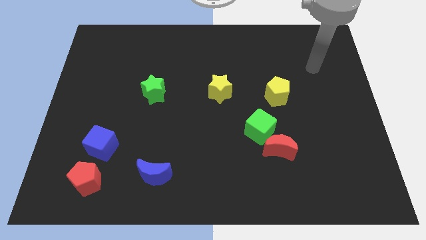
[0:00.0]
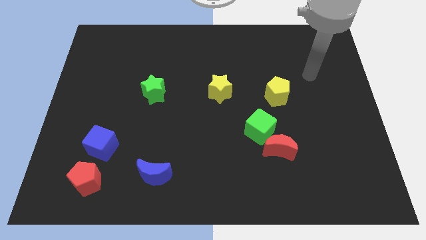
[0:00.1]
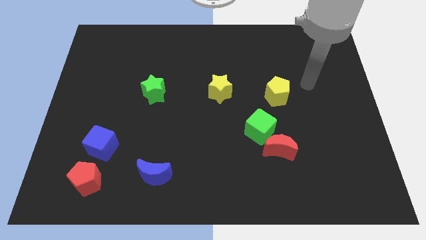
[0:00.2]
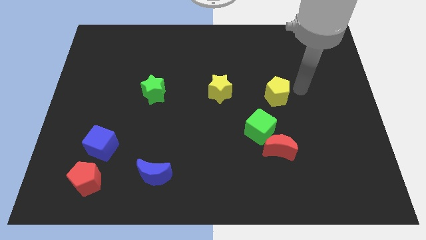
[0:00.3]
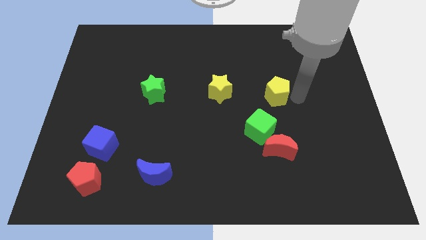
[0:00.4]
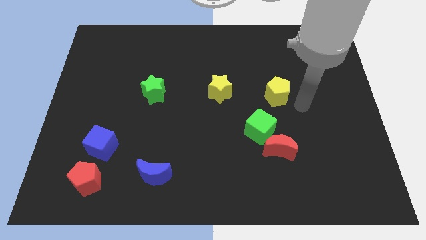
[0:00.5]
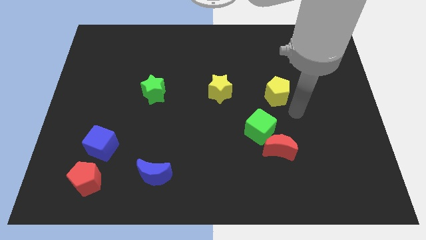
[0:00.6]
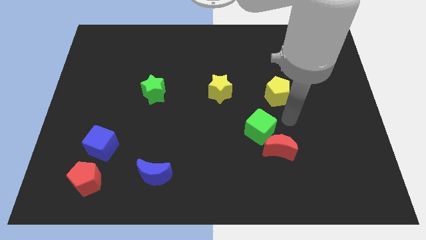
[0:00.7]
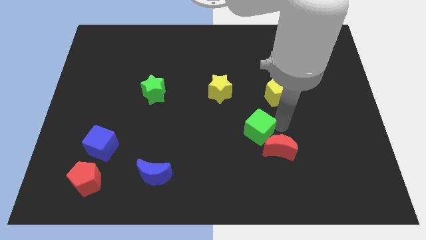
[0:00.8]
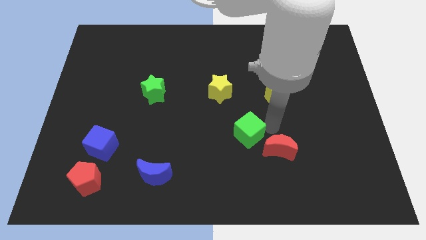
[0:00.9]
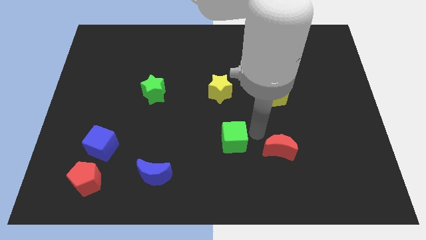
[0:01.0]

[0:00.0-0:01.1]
move the red moon away from the green cube

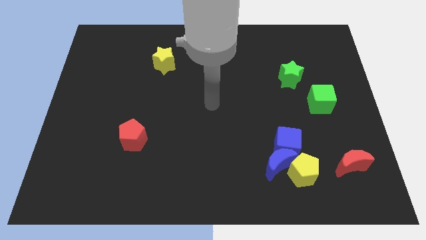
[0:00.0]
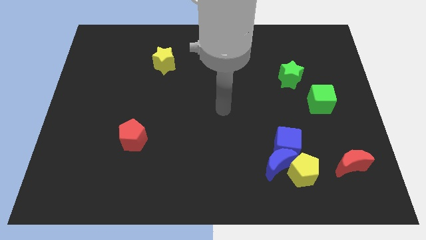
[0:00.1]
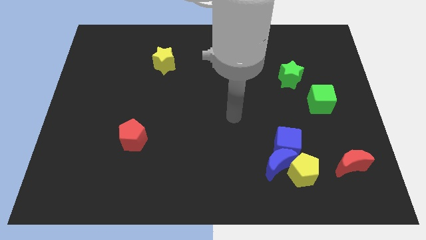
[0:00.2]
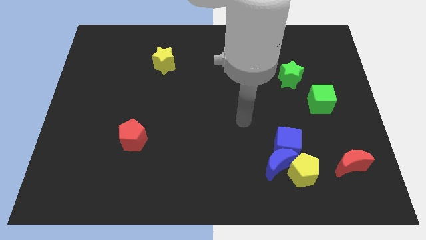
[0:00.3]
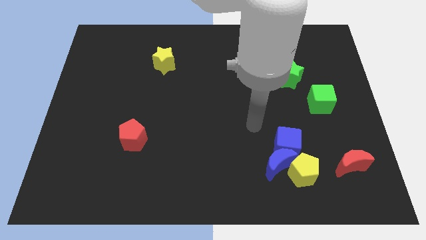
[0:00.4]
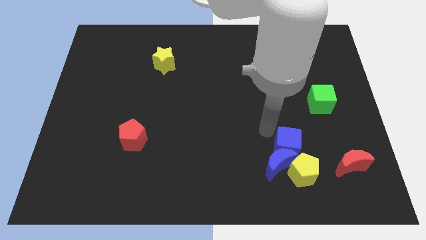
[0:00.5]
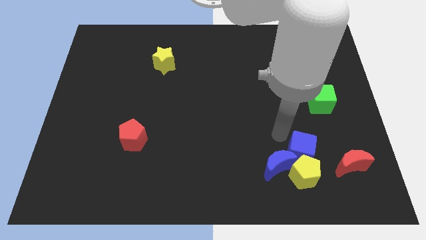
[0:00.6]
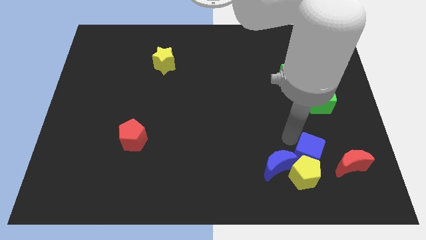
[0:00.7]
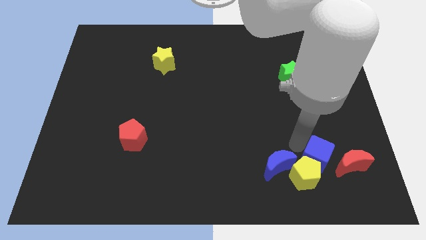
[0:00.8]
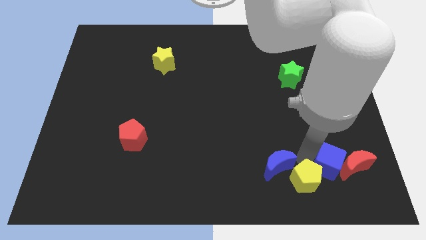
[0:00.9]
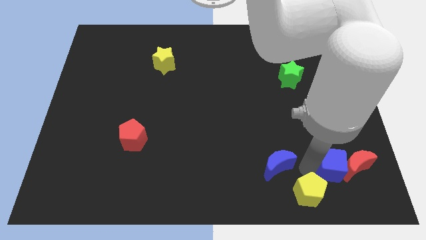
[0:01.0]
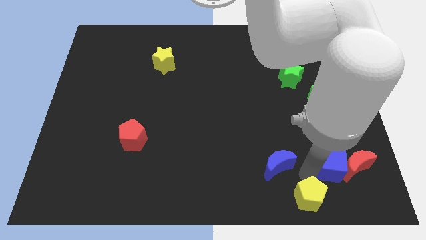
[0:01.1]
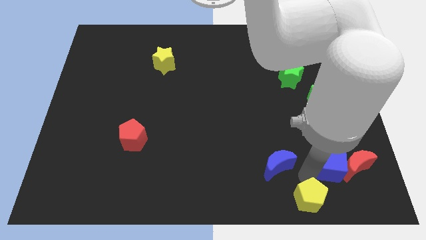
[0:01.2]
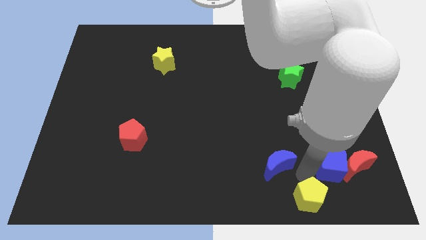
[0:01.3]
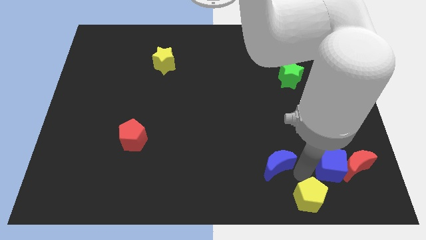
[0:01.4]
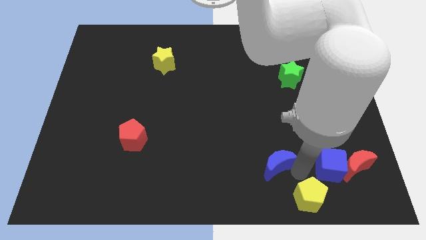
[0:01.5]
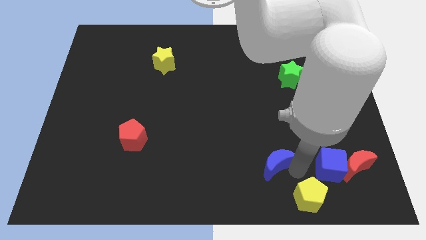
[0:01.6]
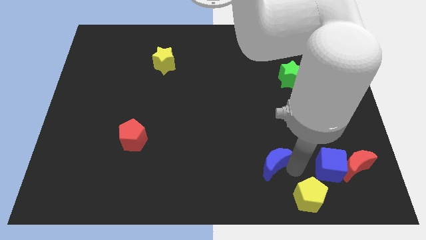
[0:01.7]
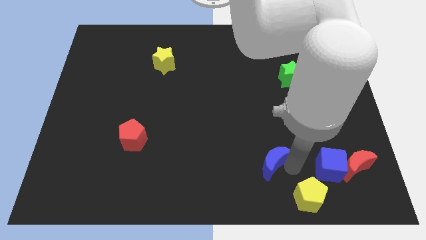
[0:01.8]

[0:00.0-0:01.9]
pull the blue moon apart from the blue cube and yellow pentagon

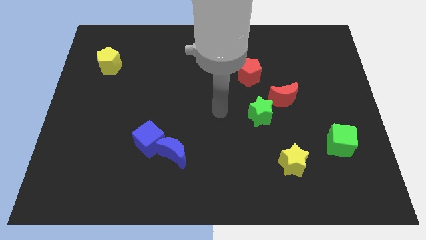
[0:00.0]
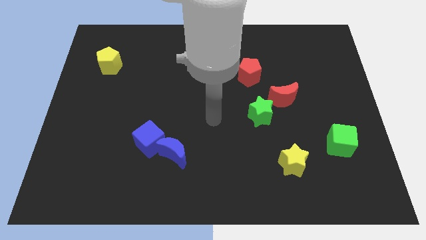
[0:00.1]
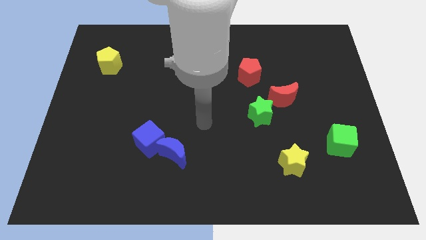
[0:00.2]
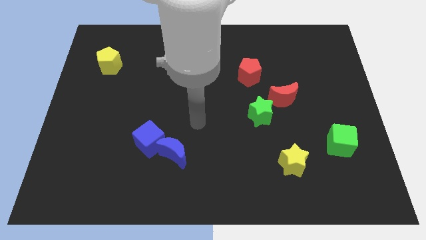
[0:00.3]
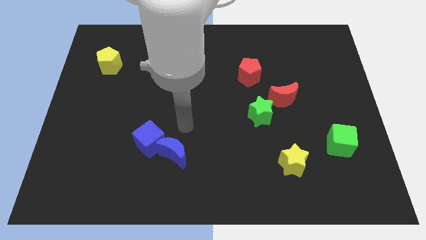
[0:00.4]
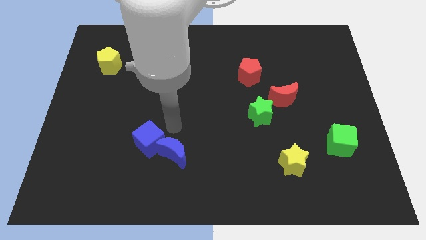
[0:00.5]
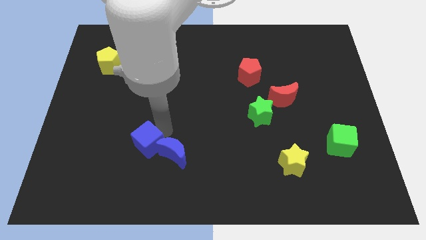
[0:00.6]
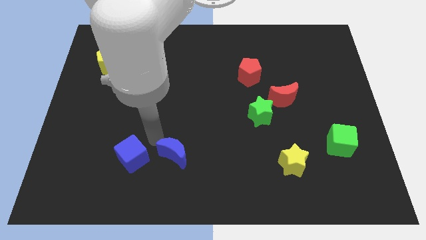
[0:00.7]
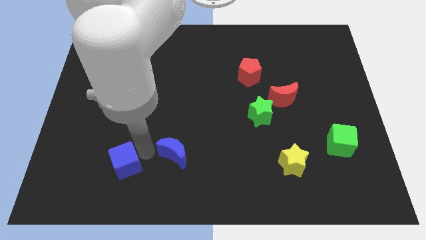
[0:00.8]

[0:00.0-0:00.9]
move the blue moon away from the blue cube

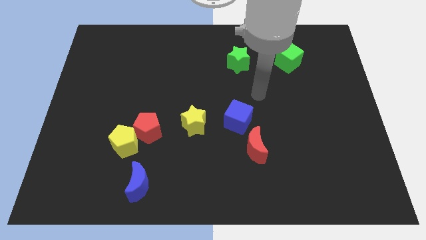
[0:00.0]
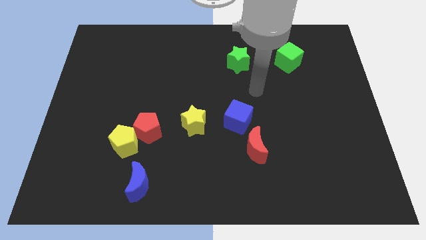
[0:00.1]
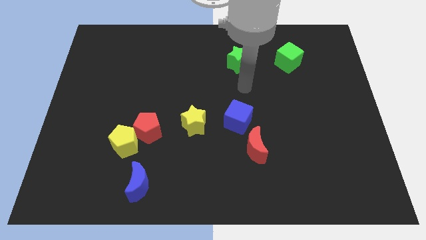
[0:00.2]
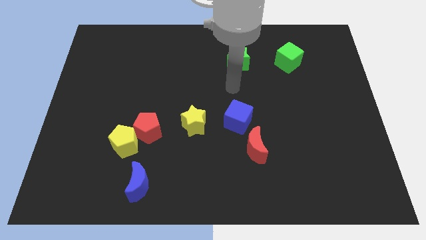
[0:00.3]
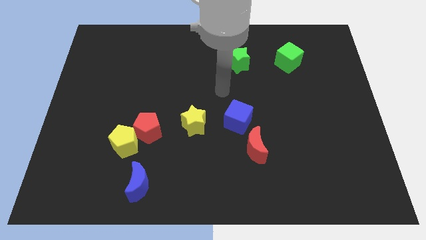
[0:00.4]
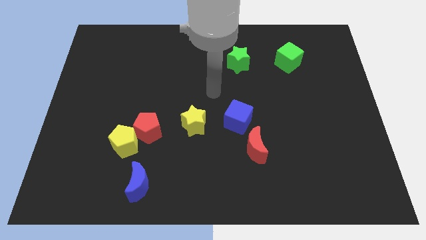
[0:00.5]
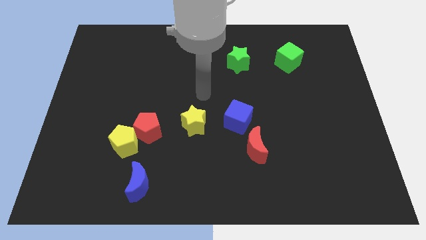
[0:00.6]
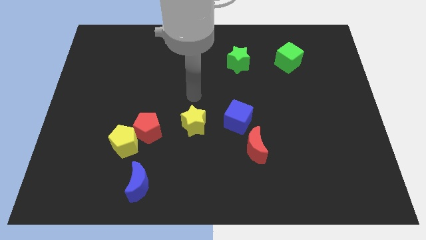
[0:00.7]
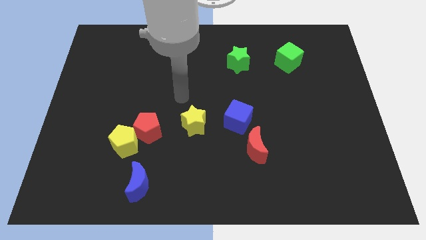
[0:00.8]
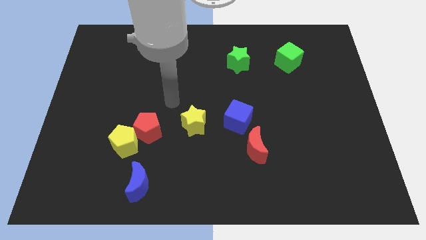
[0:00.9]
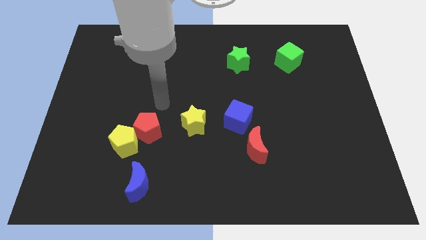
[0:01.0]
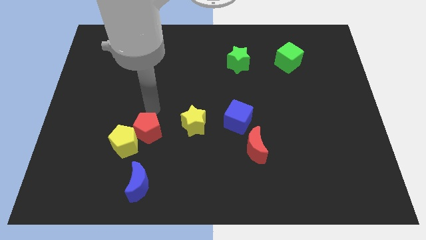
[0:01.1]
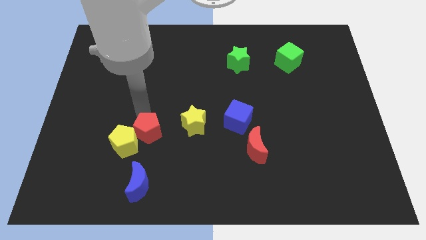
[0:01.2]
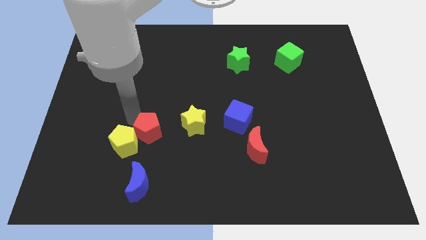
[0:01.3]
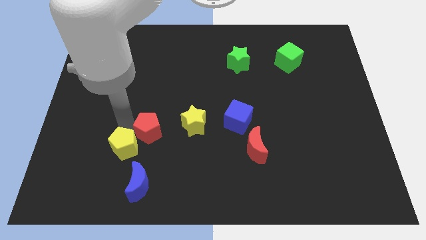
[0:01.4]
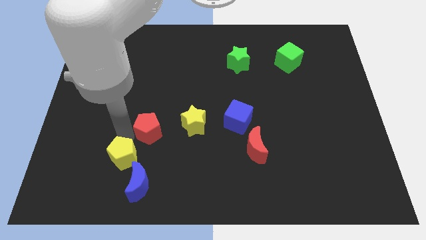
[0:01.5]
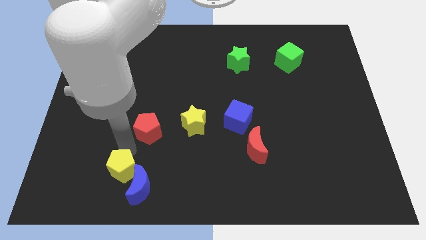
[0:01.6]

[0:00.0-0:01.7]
move the red pentagon away from the yellow pentagon

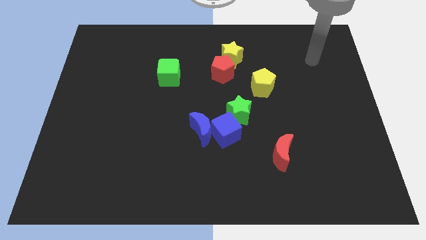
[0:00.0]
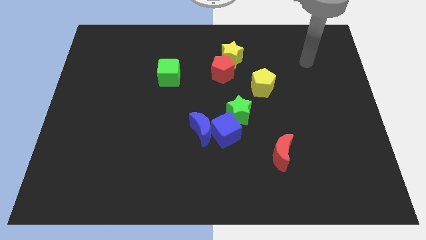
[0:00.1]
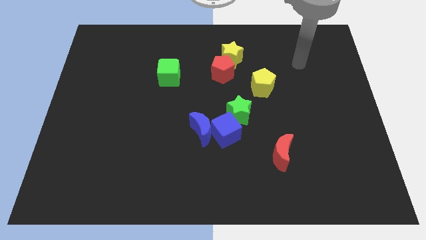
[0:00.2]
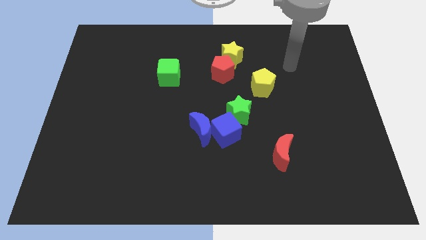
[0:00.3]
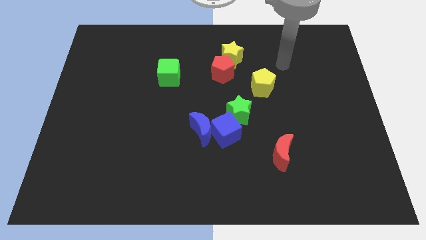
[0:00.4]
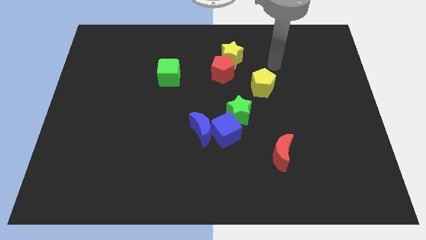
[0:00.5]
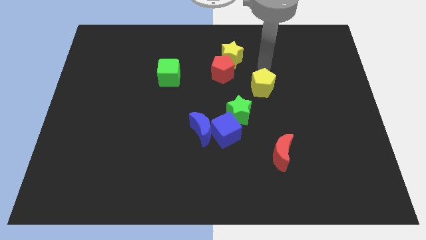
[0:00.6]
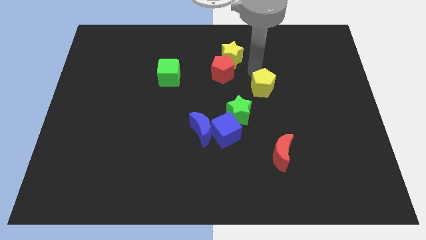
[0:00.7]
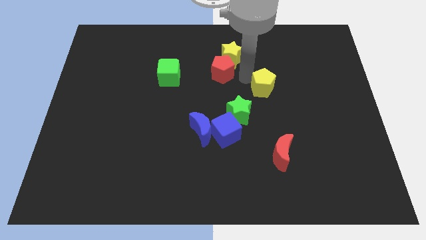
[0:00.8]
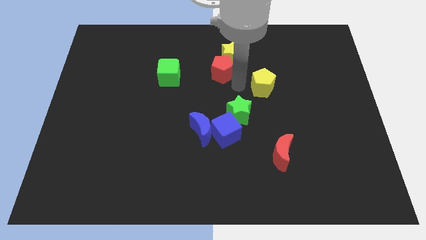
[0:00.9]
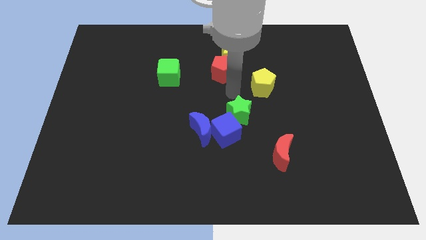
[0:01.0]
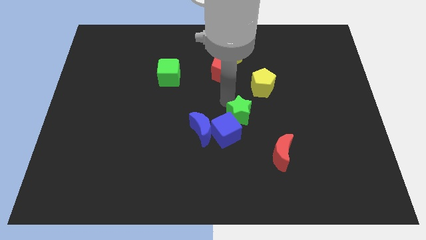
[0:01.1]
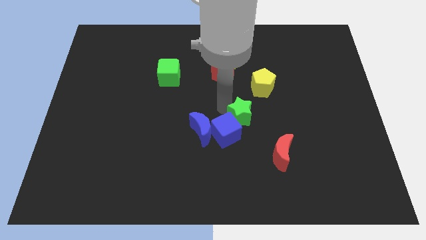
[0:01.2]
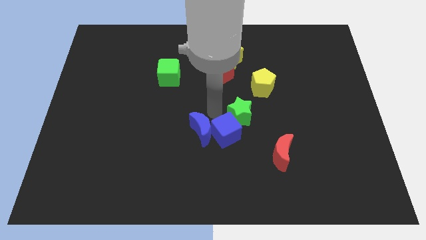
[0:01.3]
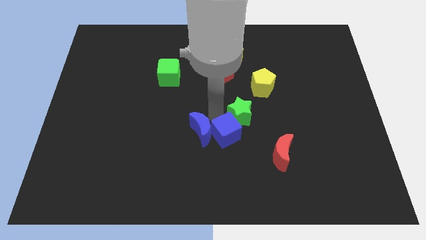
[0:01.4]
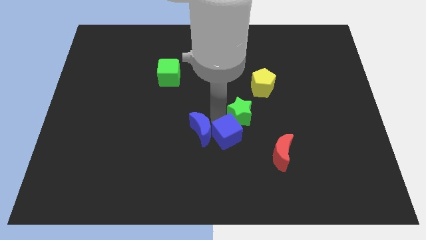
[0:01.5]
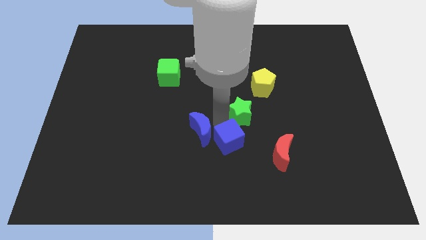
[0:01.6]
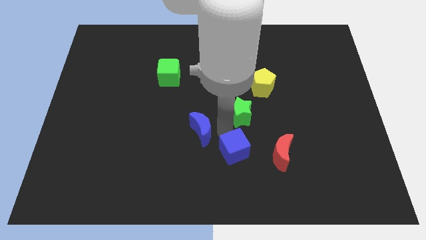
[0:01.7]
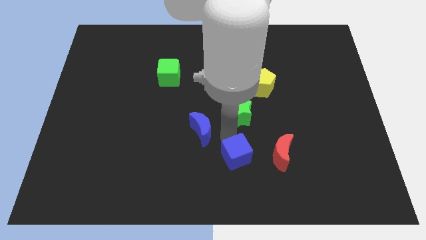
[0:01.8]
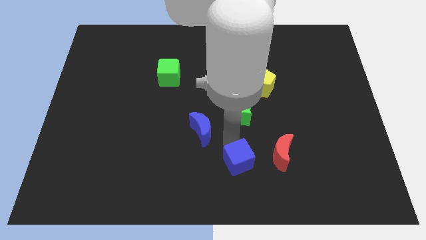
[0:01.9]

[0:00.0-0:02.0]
separate the blue cube from the blue moon and green star

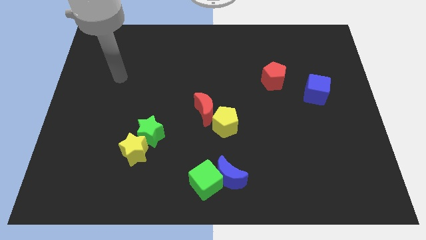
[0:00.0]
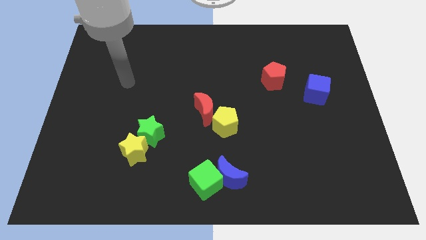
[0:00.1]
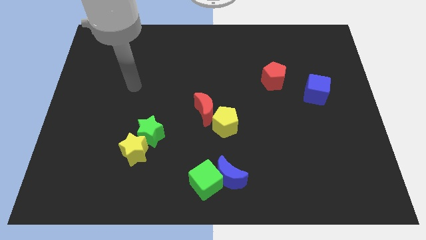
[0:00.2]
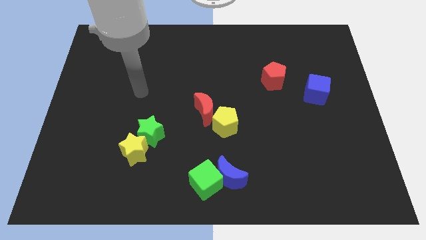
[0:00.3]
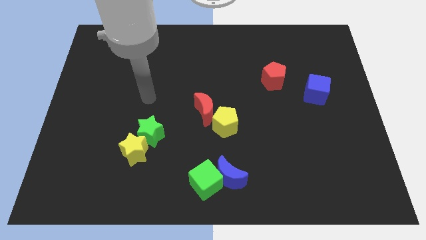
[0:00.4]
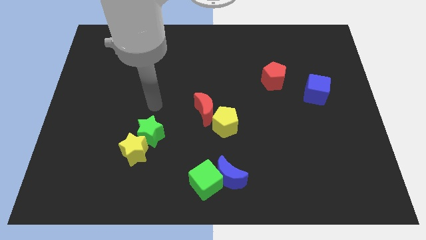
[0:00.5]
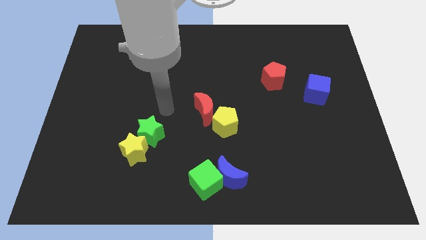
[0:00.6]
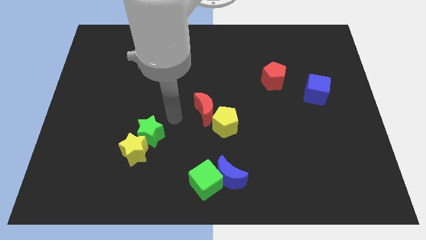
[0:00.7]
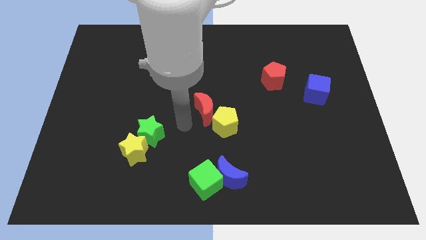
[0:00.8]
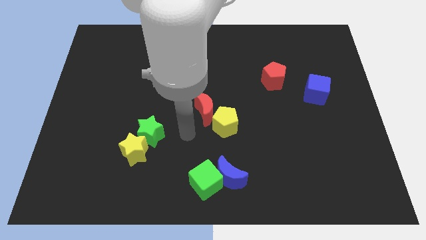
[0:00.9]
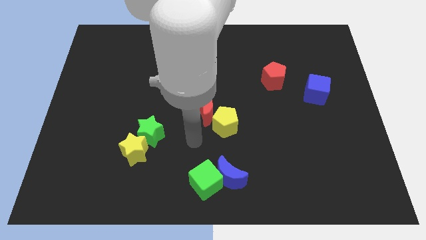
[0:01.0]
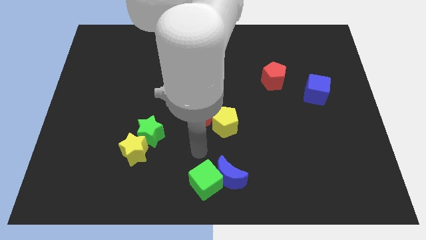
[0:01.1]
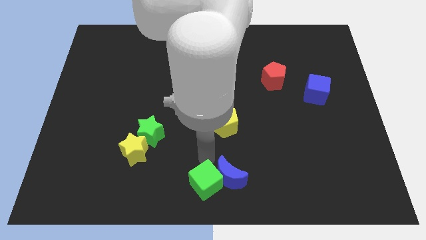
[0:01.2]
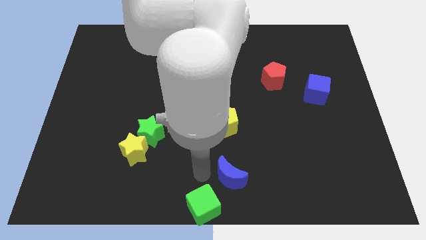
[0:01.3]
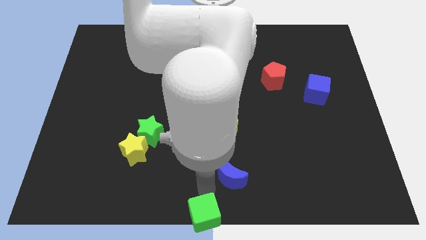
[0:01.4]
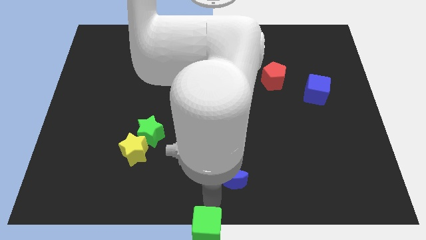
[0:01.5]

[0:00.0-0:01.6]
pull the blue moon apart from the green cube
